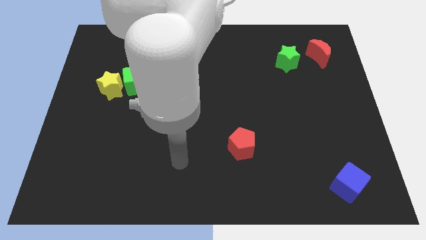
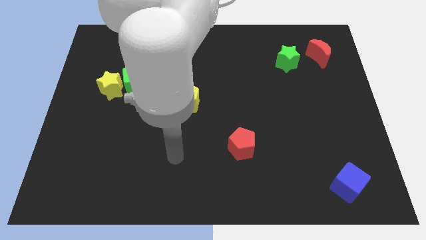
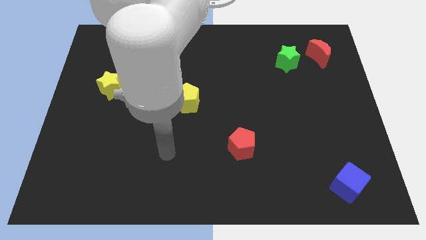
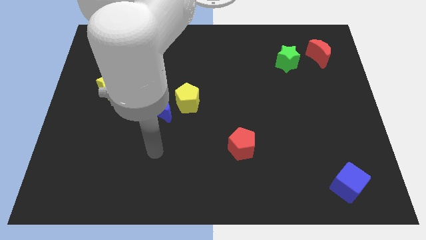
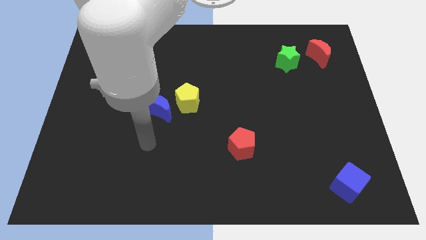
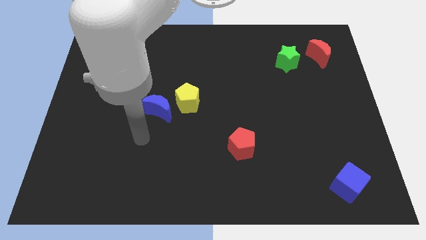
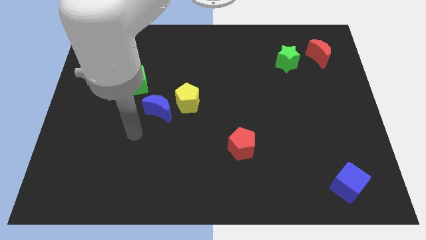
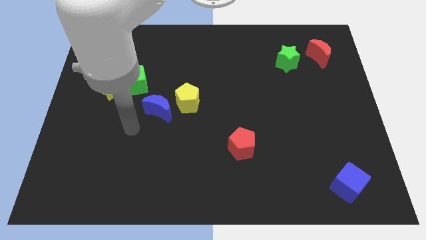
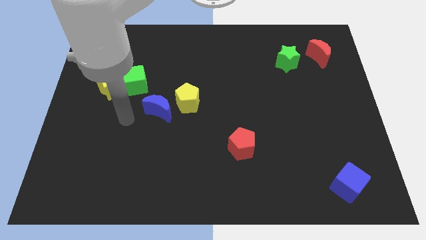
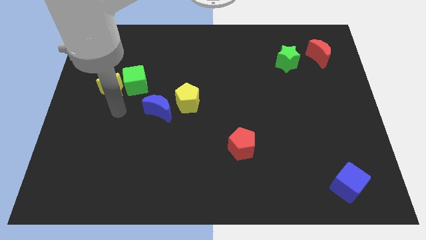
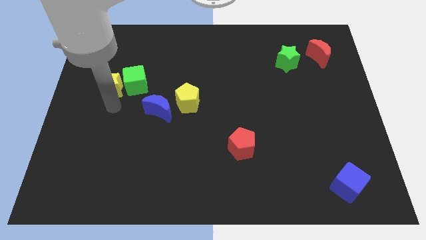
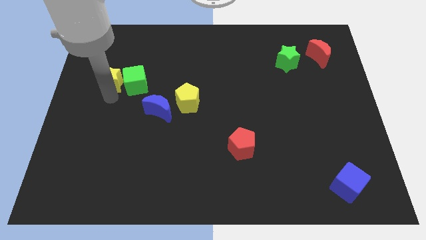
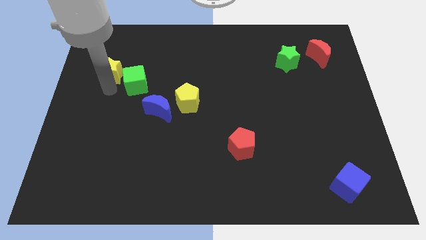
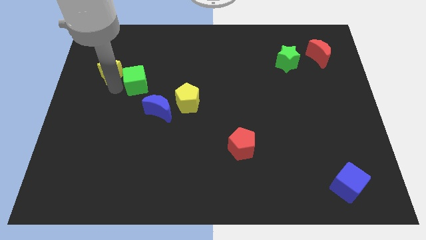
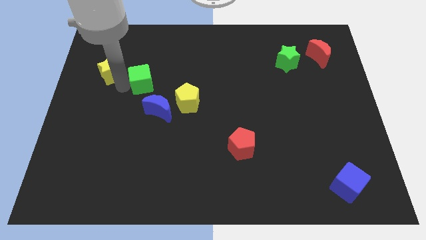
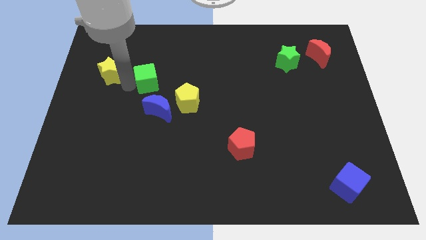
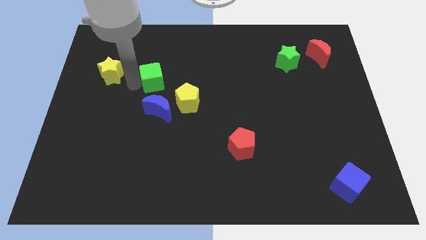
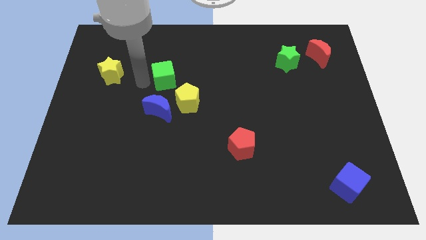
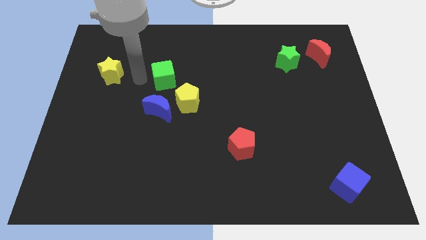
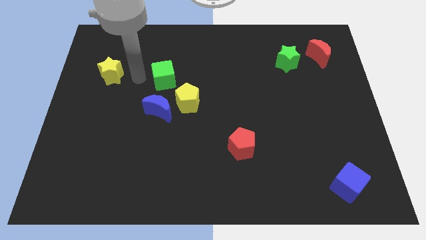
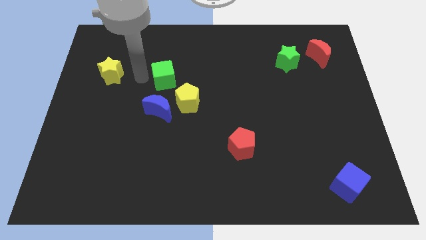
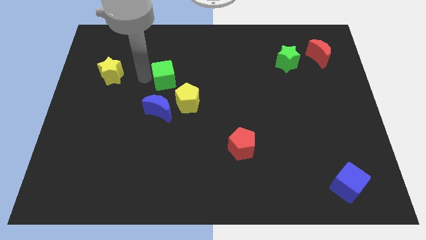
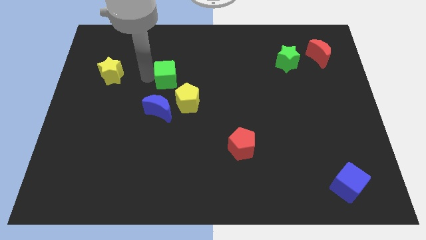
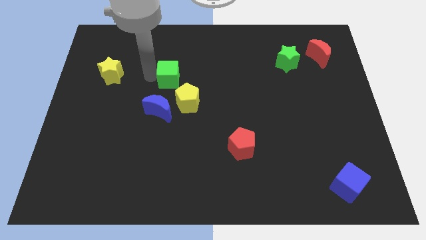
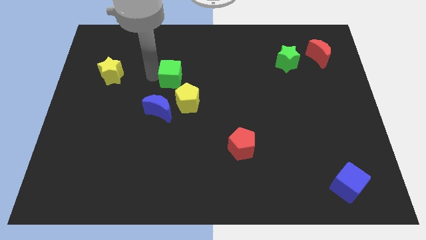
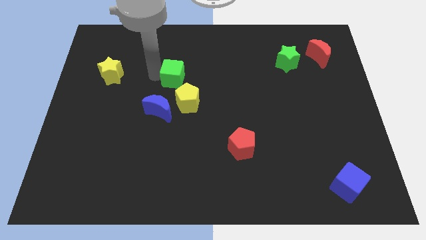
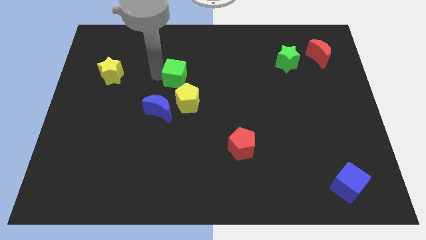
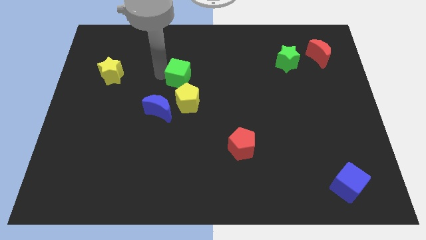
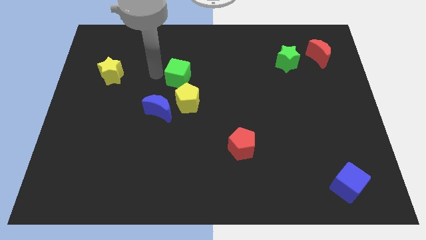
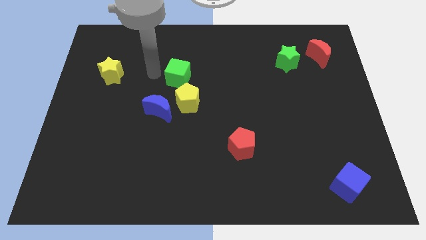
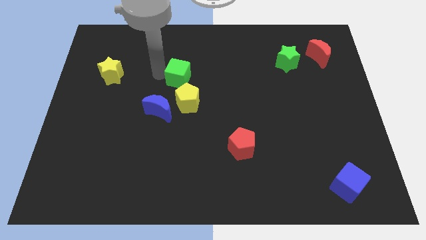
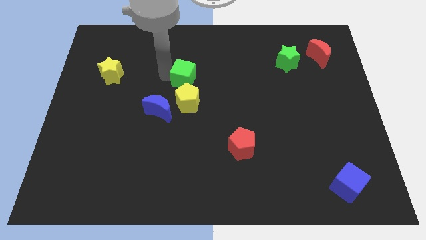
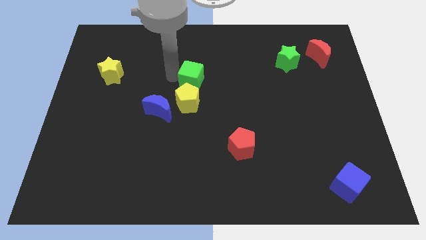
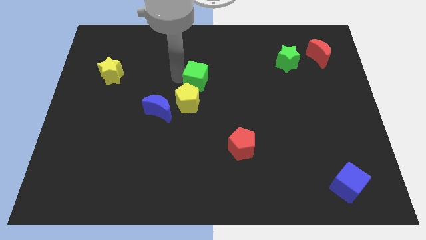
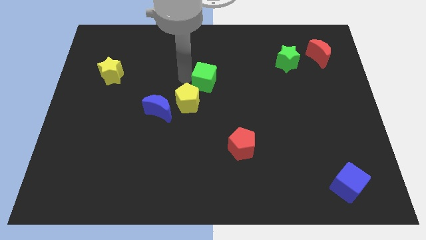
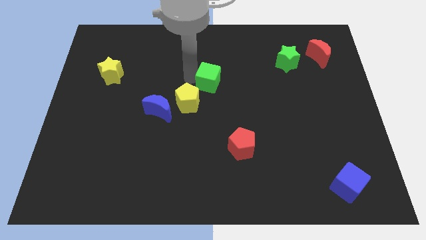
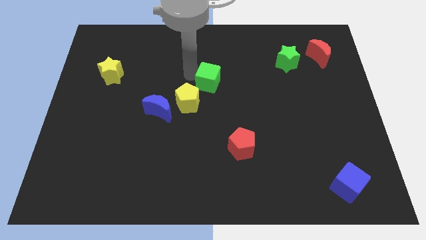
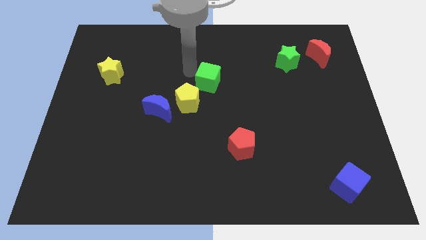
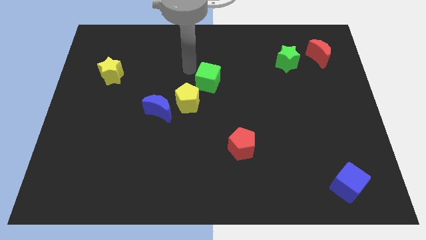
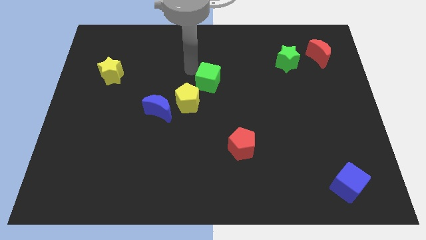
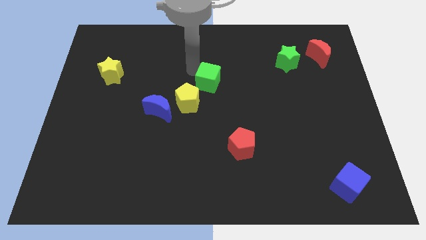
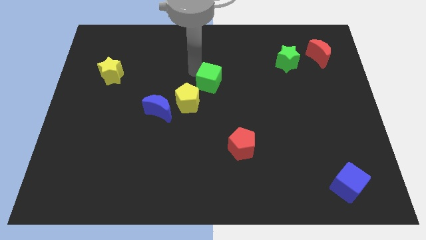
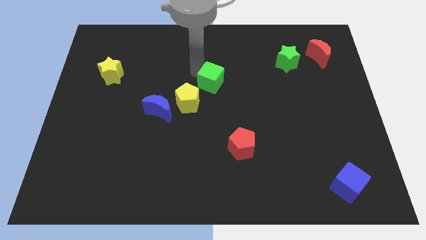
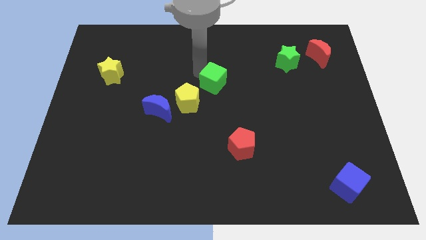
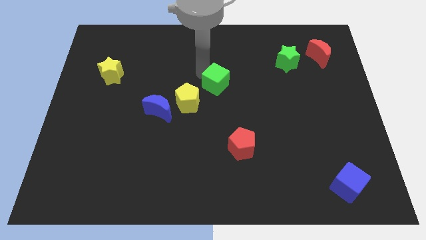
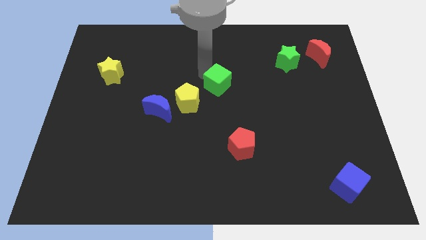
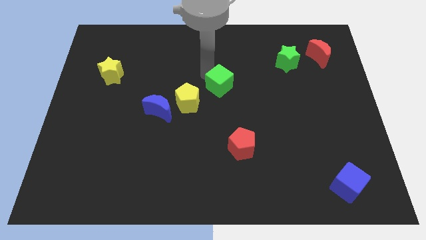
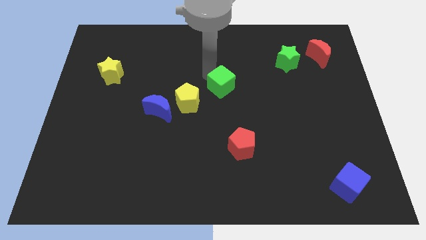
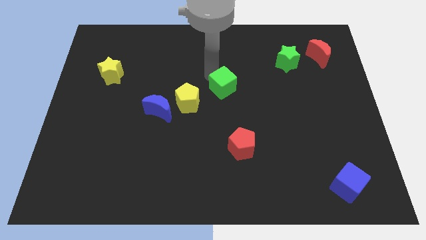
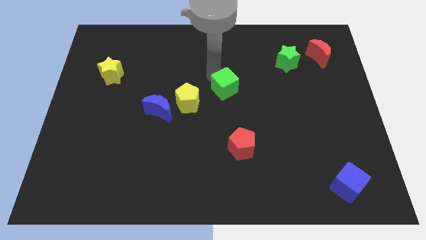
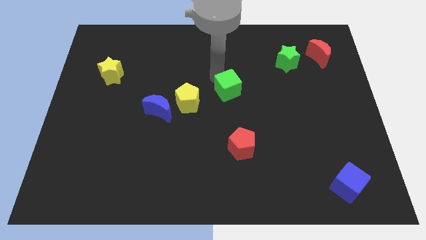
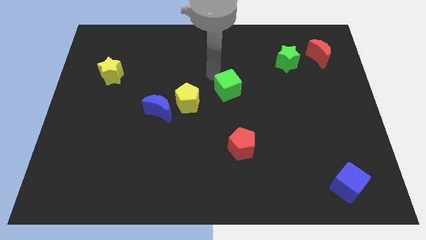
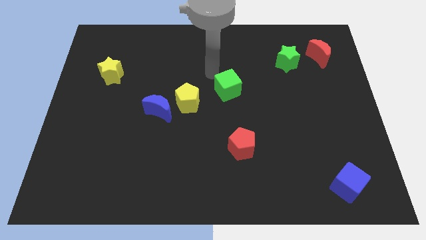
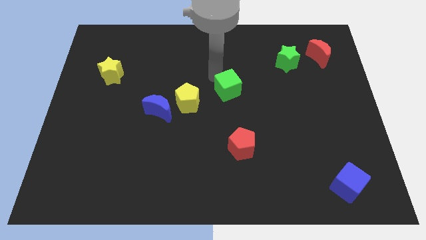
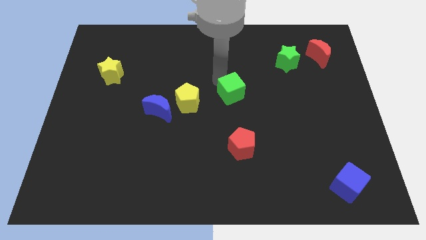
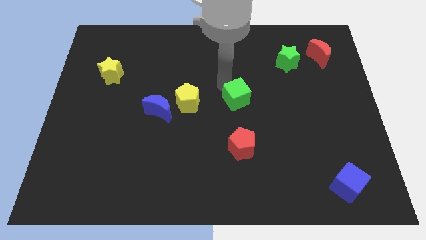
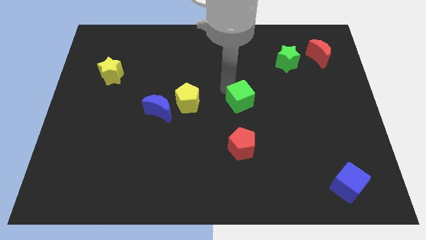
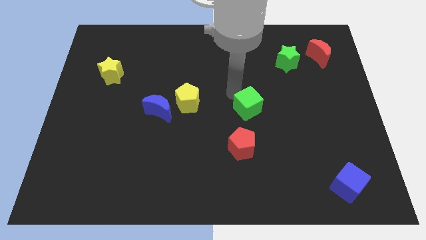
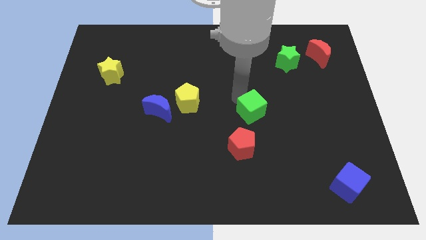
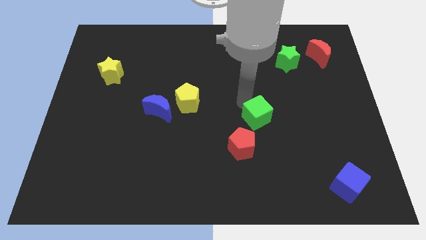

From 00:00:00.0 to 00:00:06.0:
push the green cube to the top right of the red pentagon

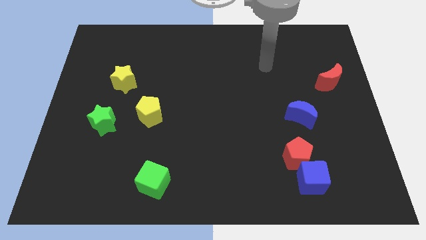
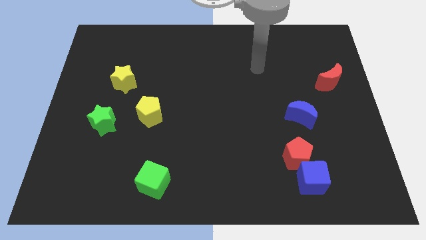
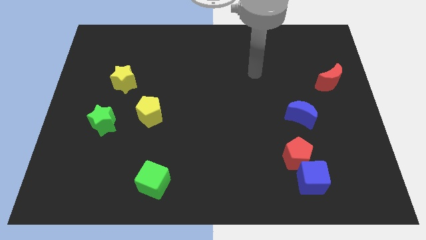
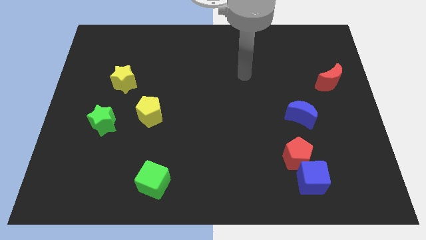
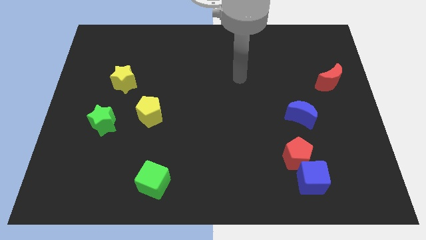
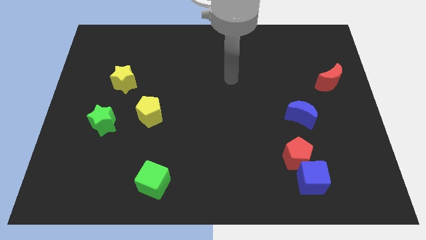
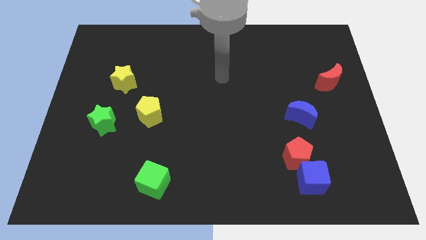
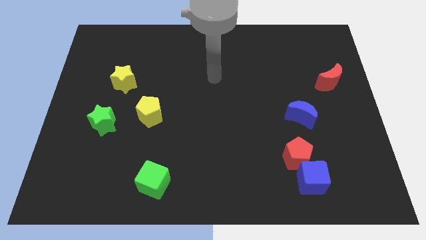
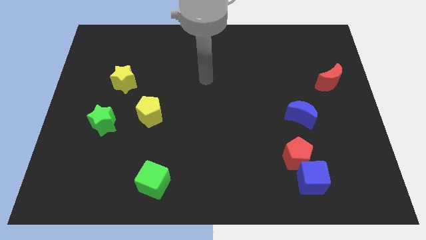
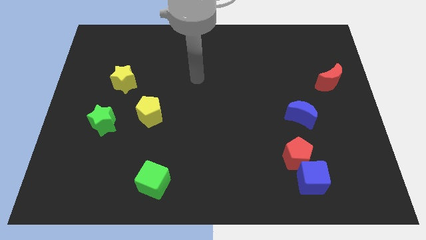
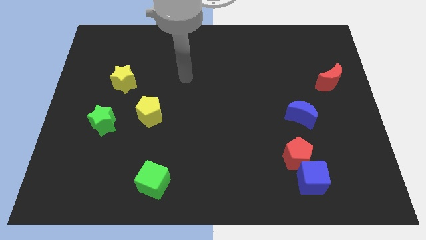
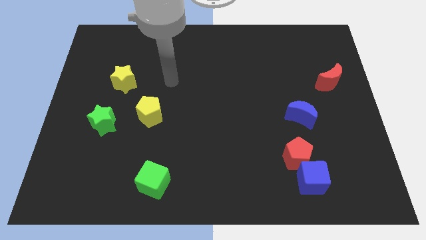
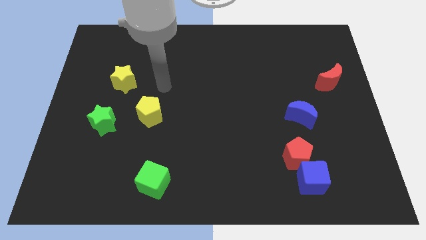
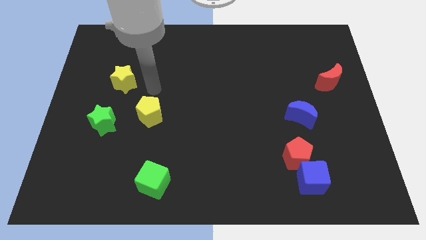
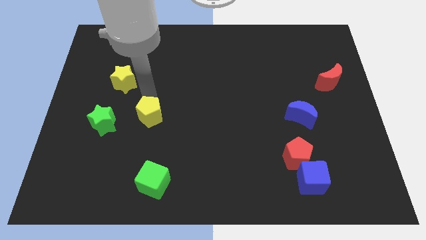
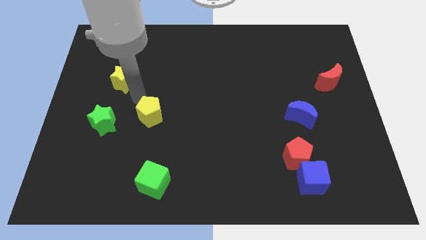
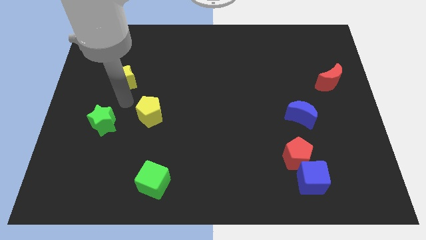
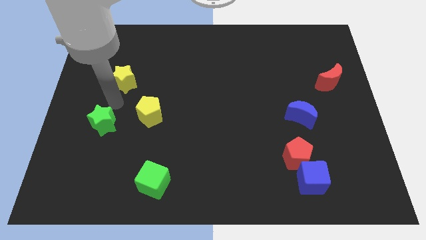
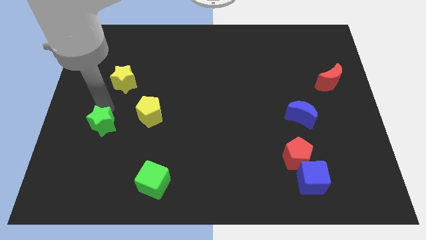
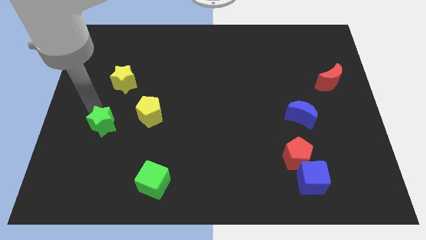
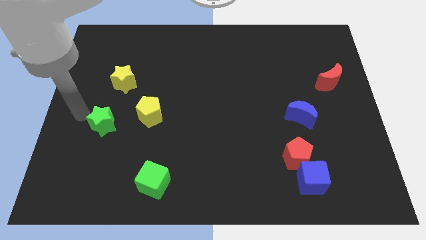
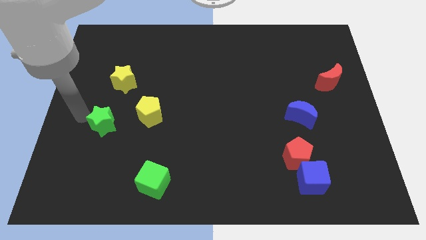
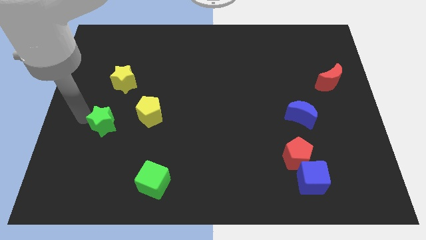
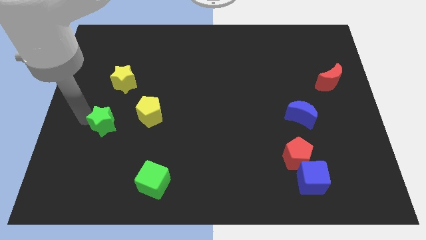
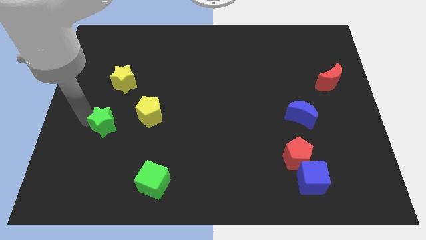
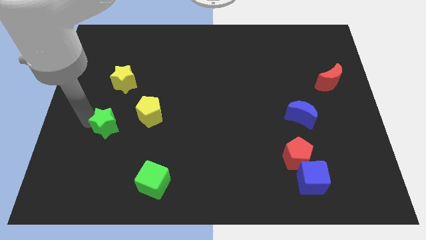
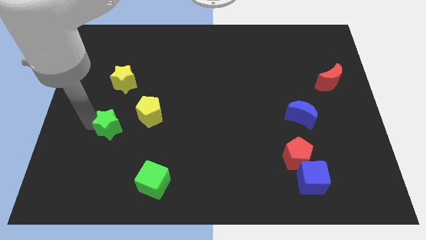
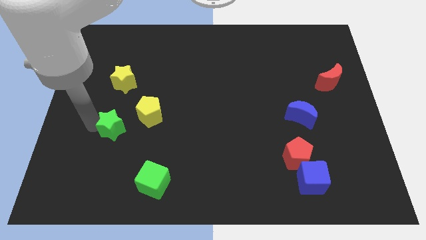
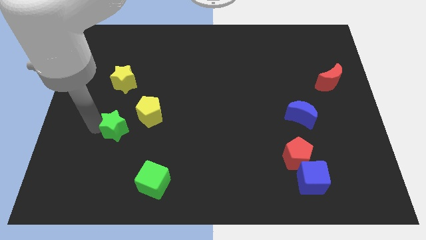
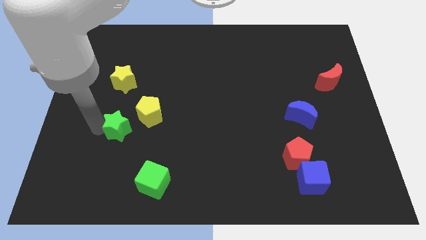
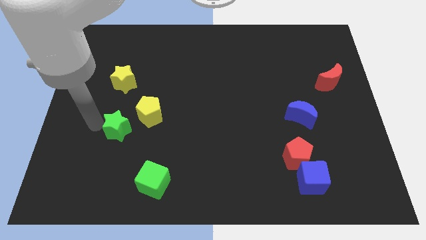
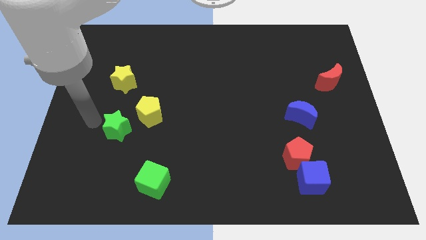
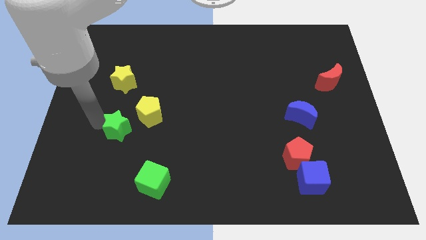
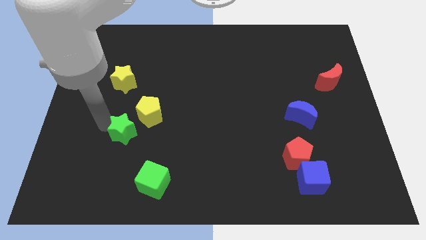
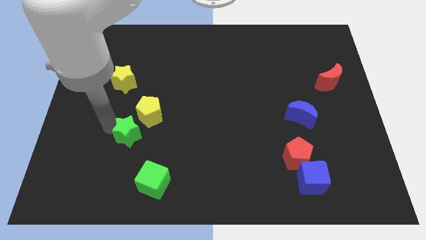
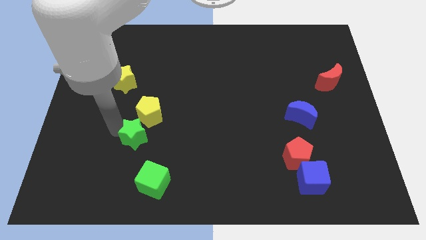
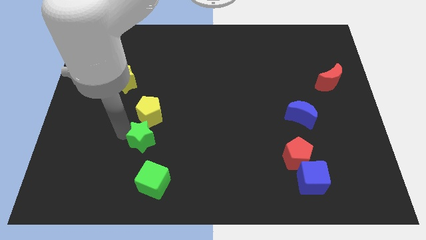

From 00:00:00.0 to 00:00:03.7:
push the green star to the top of the green cube
